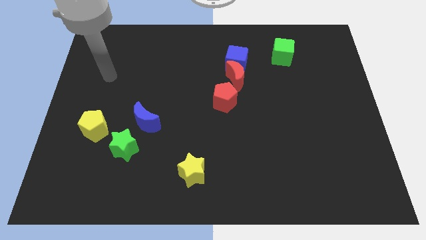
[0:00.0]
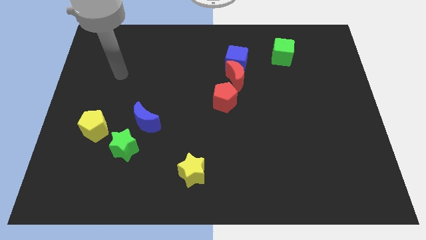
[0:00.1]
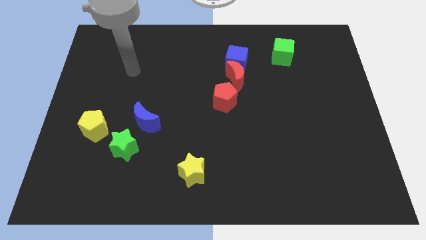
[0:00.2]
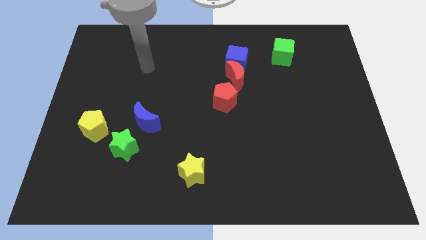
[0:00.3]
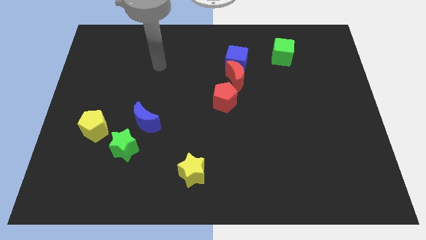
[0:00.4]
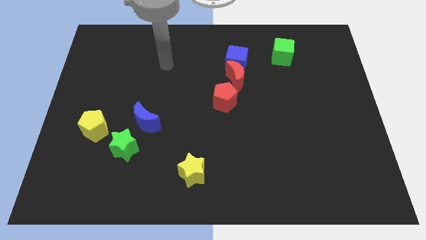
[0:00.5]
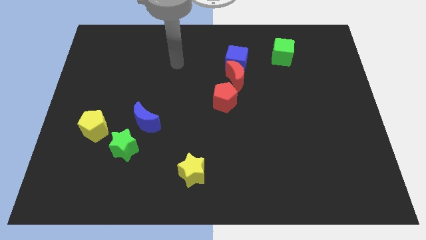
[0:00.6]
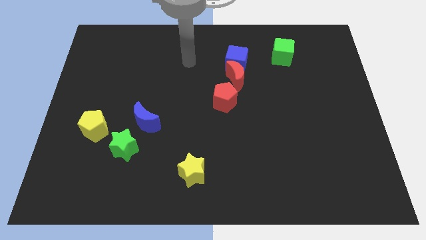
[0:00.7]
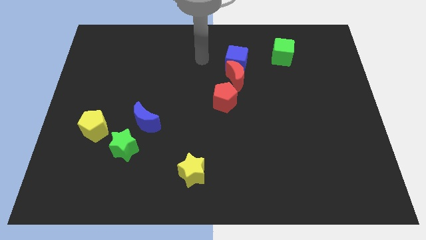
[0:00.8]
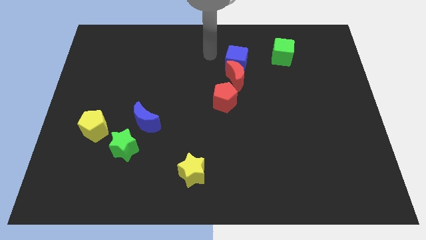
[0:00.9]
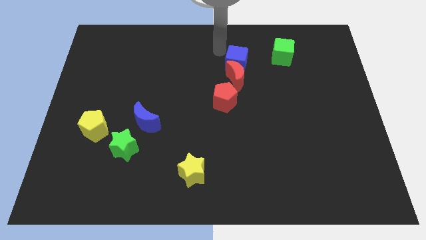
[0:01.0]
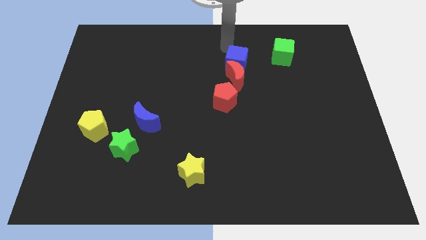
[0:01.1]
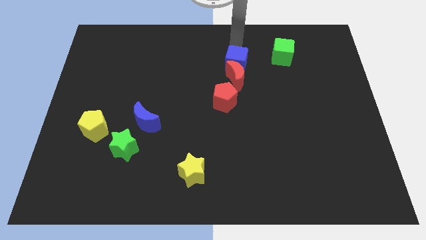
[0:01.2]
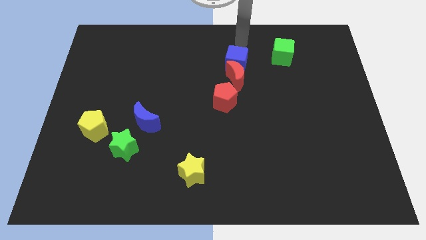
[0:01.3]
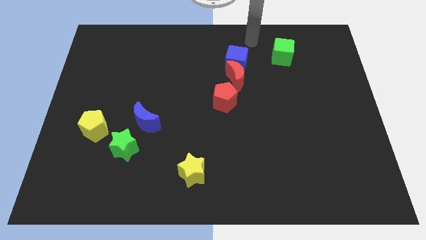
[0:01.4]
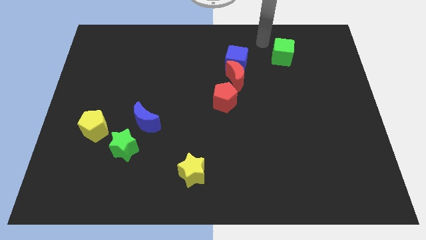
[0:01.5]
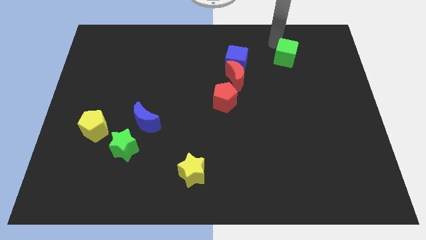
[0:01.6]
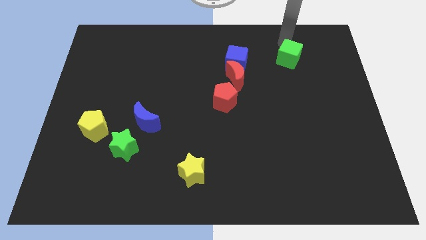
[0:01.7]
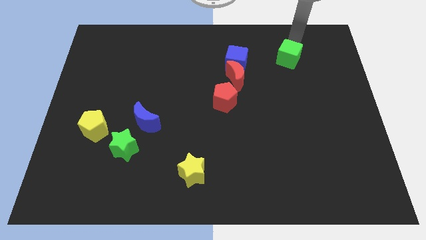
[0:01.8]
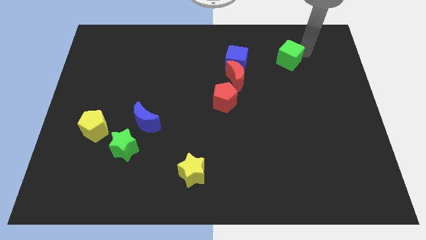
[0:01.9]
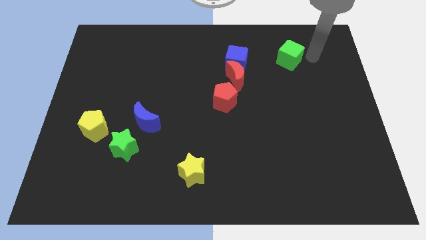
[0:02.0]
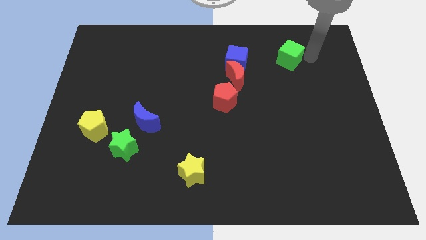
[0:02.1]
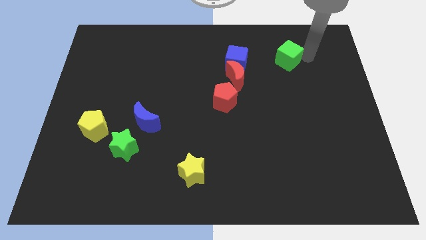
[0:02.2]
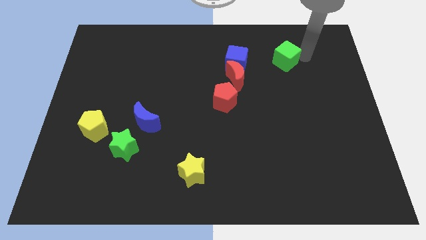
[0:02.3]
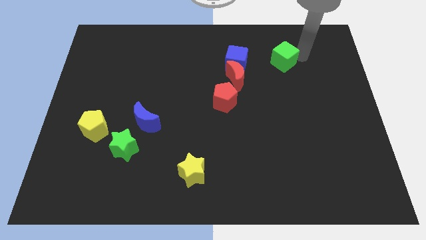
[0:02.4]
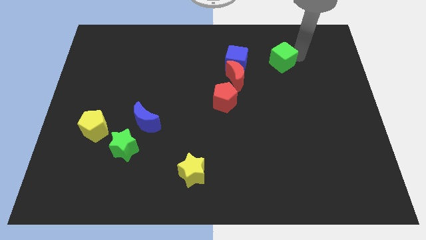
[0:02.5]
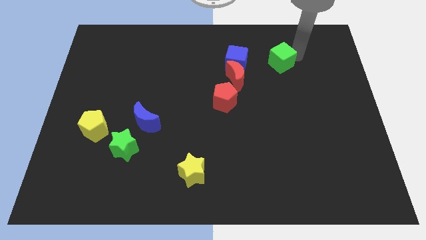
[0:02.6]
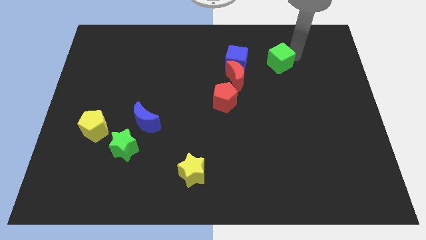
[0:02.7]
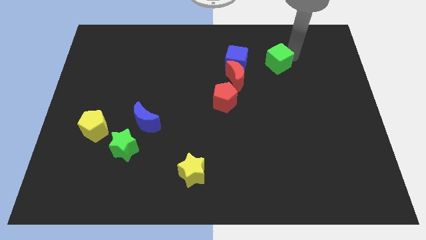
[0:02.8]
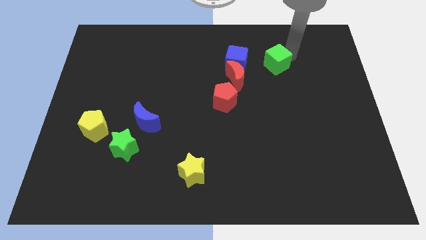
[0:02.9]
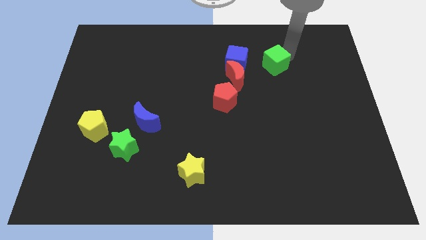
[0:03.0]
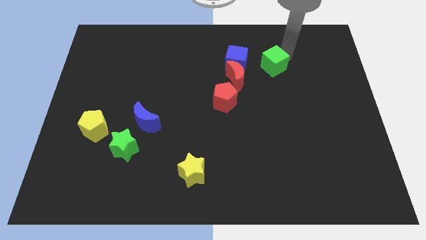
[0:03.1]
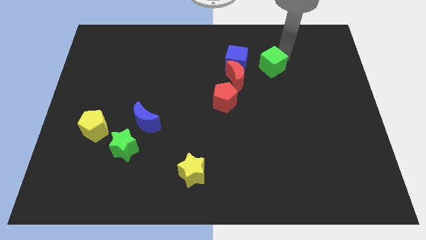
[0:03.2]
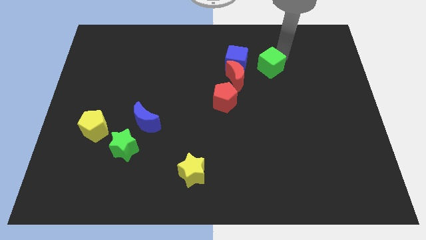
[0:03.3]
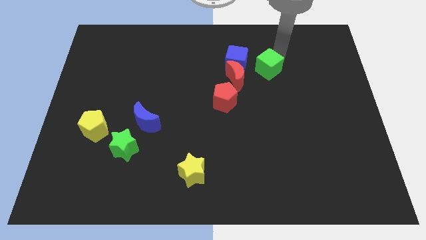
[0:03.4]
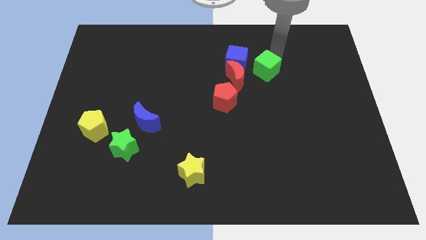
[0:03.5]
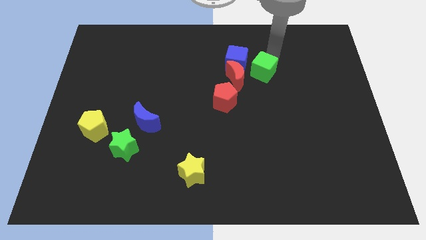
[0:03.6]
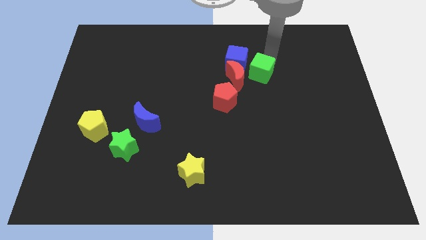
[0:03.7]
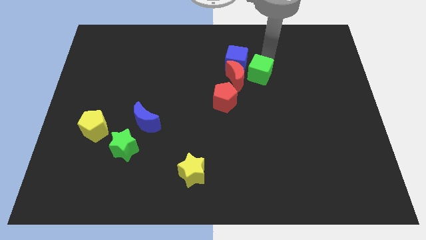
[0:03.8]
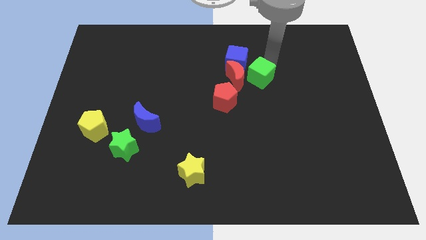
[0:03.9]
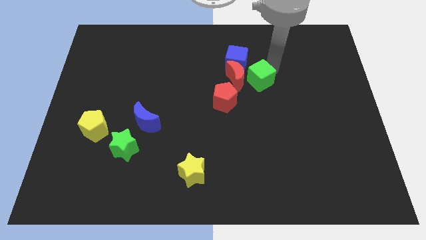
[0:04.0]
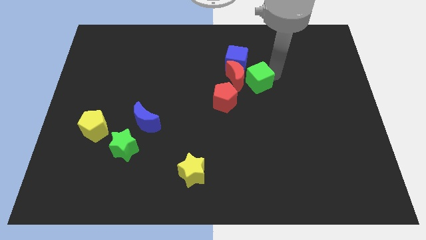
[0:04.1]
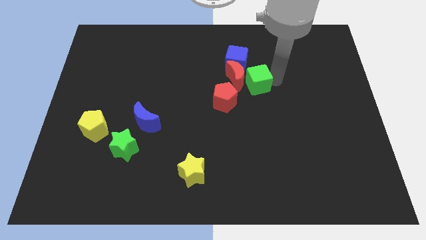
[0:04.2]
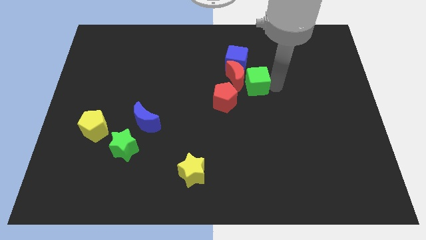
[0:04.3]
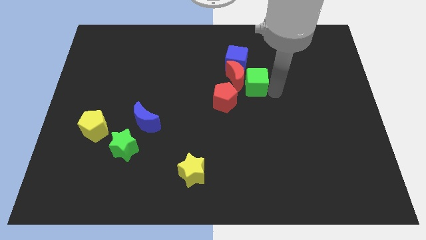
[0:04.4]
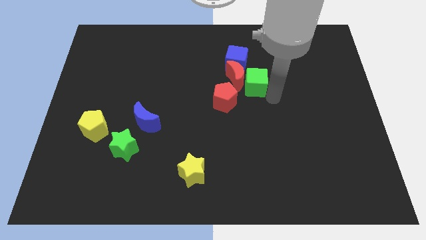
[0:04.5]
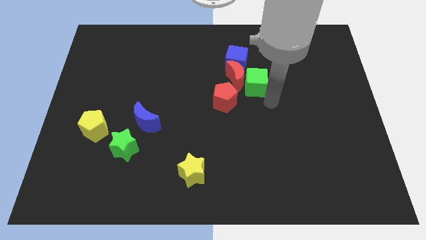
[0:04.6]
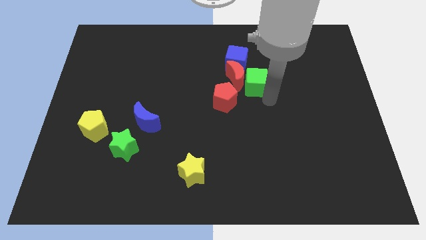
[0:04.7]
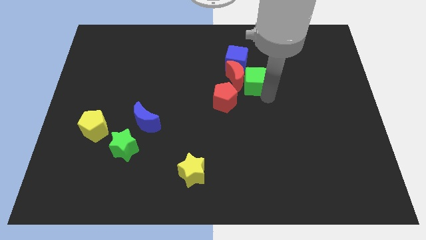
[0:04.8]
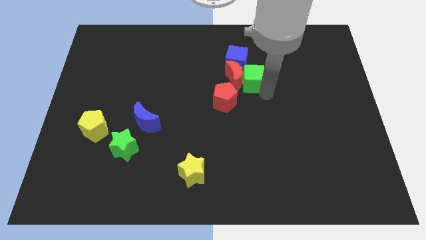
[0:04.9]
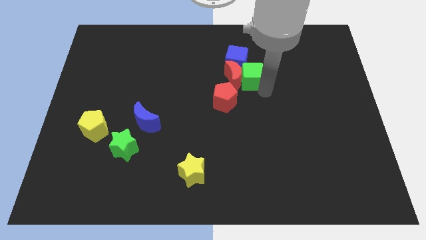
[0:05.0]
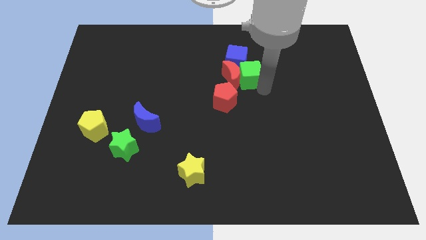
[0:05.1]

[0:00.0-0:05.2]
push the green cube to the blue cube

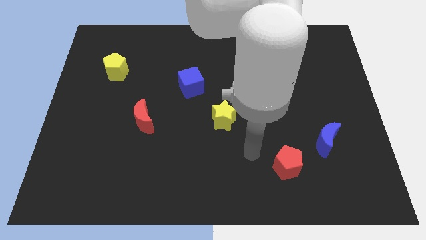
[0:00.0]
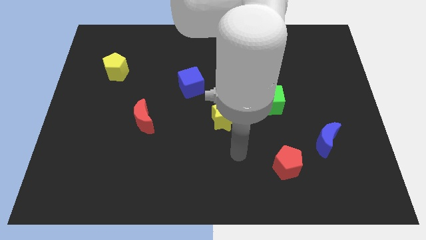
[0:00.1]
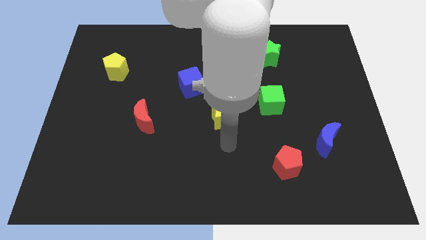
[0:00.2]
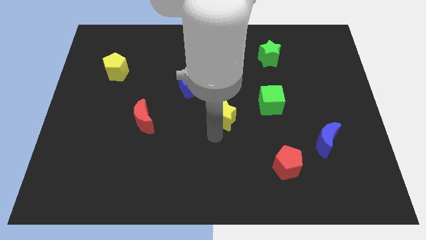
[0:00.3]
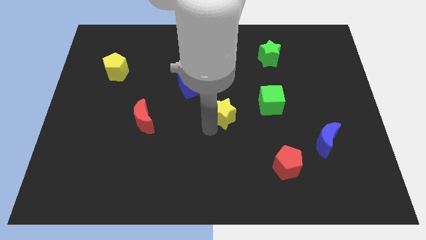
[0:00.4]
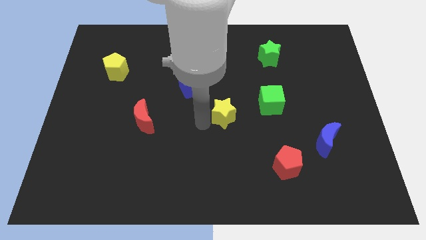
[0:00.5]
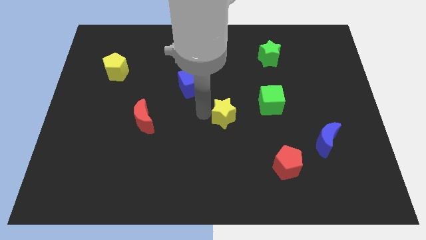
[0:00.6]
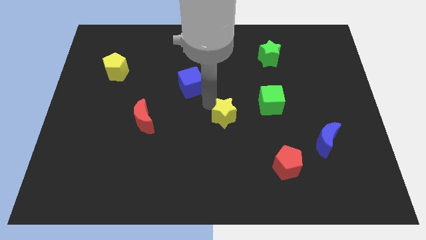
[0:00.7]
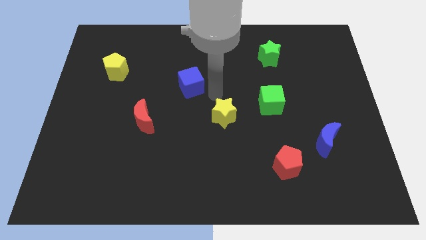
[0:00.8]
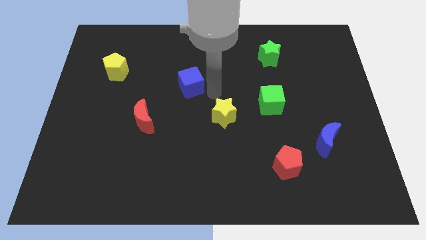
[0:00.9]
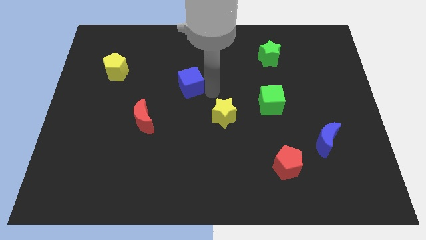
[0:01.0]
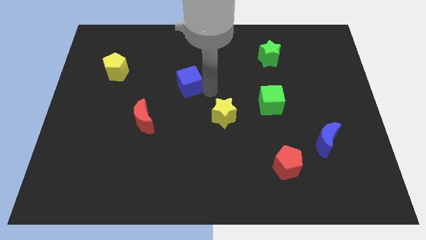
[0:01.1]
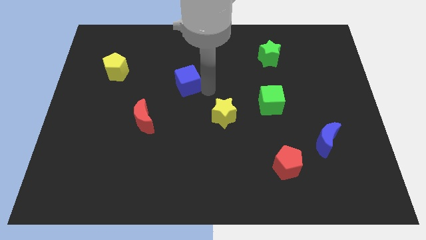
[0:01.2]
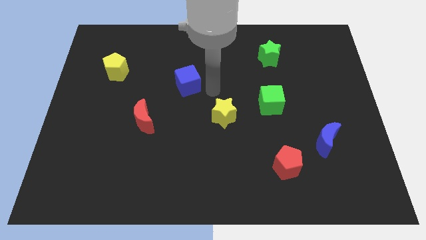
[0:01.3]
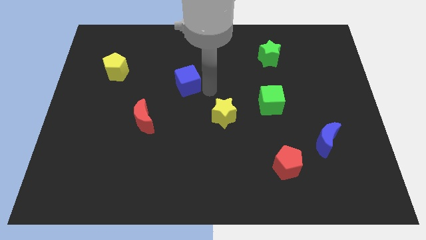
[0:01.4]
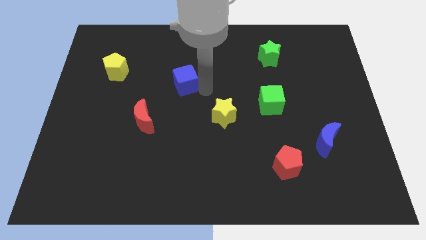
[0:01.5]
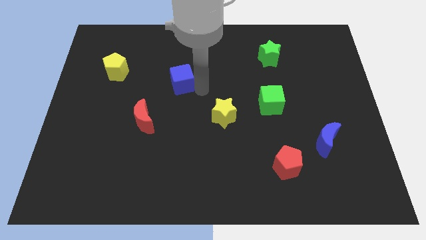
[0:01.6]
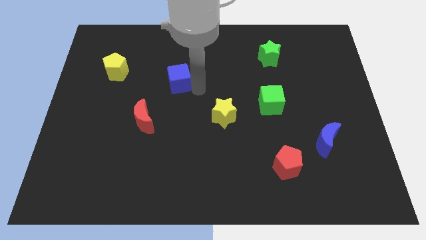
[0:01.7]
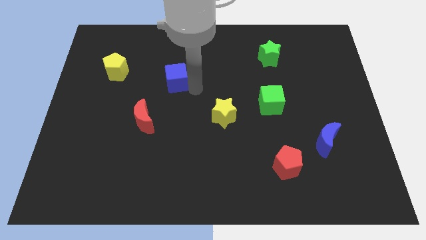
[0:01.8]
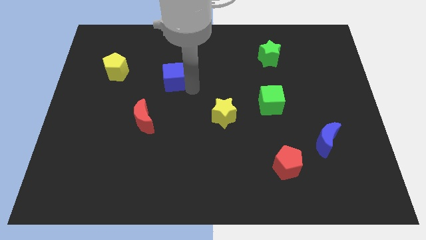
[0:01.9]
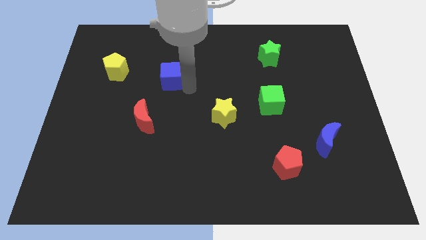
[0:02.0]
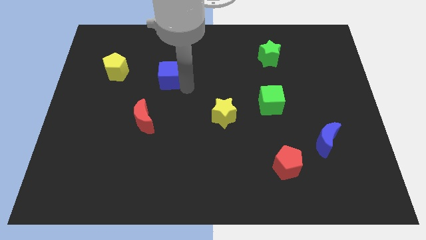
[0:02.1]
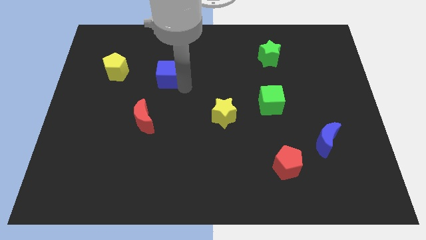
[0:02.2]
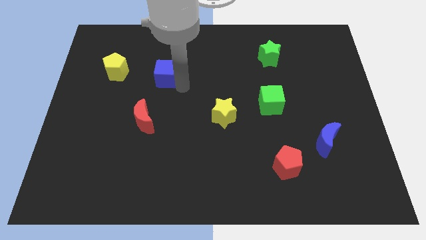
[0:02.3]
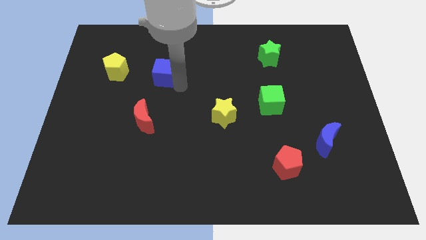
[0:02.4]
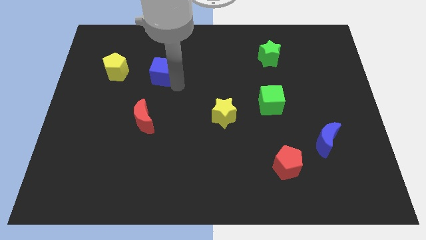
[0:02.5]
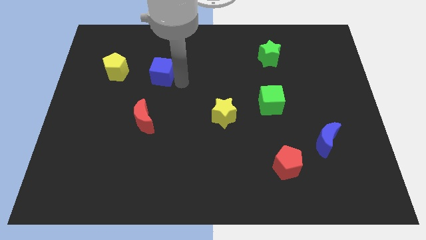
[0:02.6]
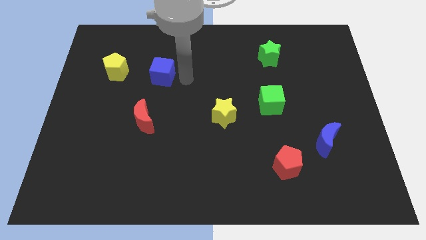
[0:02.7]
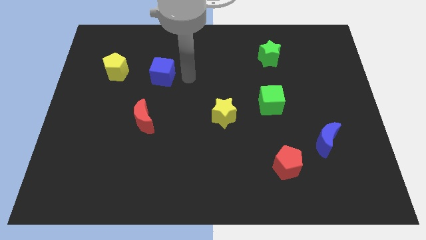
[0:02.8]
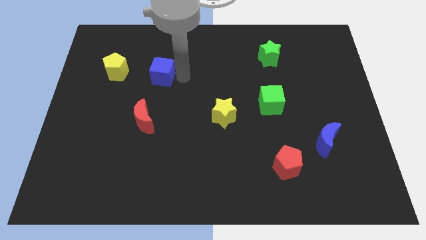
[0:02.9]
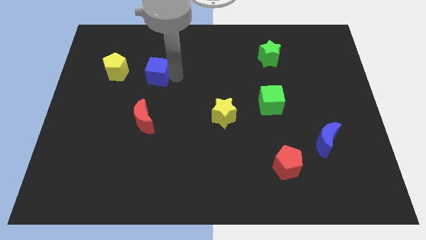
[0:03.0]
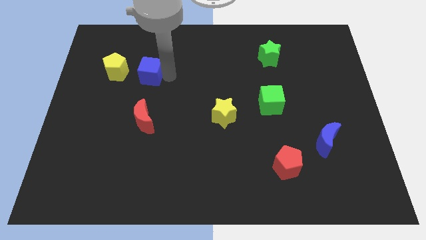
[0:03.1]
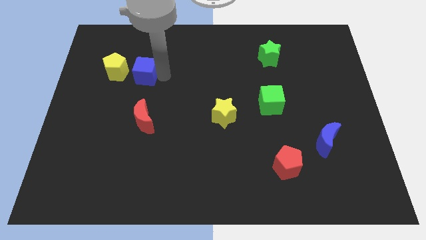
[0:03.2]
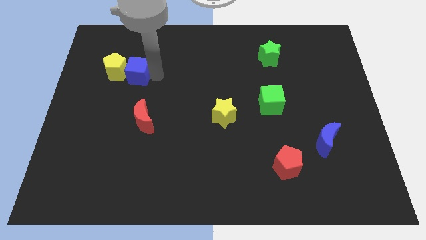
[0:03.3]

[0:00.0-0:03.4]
put the blue cube to the yellow pentagon
